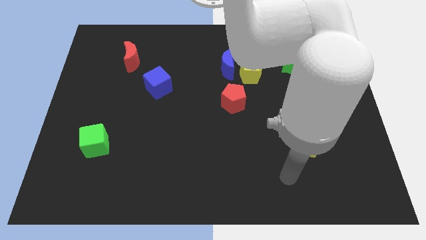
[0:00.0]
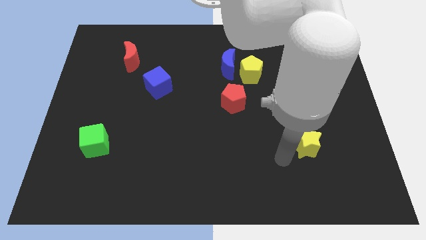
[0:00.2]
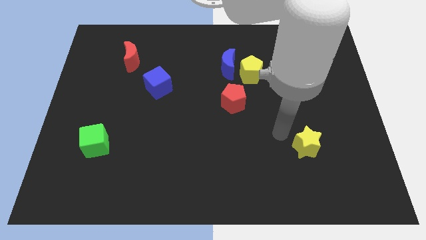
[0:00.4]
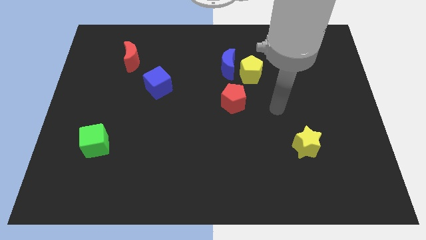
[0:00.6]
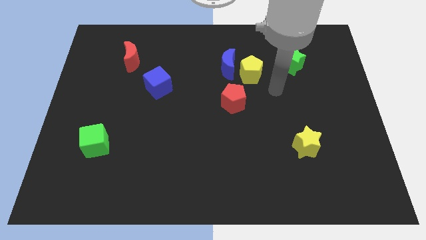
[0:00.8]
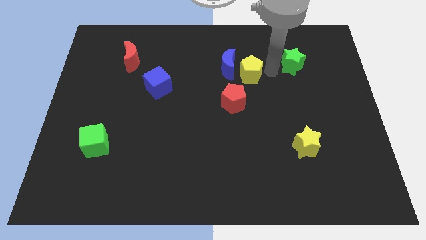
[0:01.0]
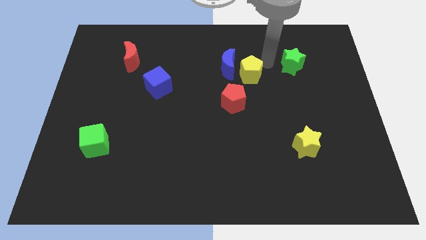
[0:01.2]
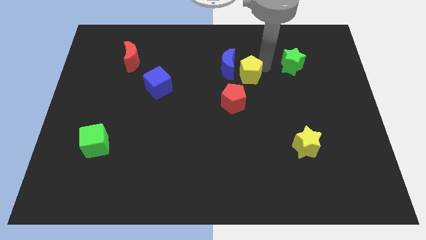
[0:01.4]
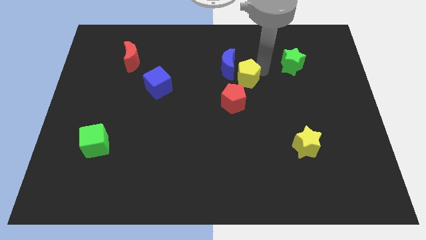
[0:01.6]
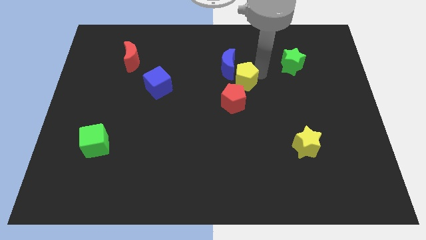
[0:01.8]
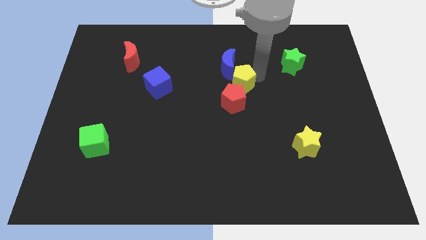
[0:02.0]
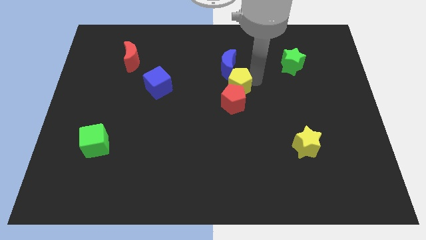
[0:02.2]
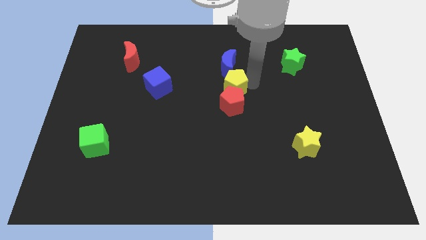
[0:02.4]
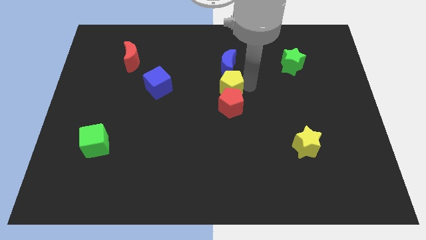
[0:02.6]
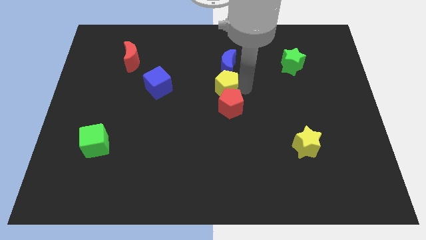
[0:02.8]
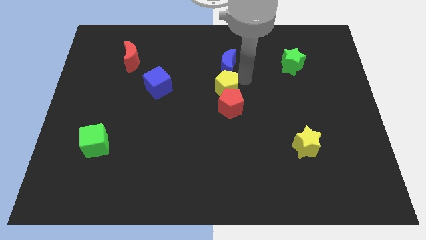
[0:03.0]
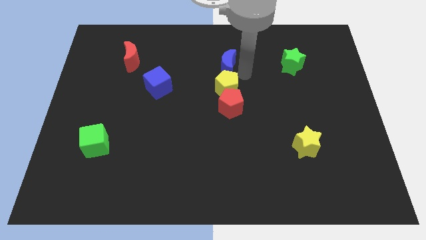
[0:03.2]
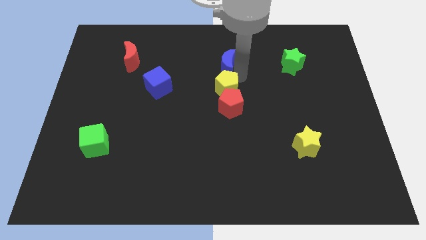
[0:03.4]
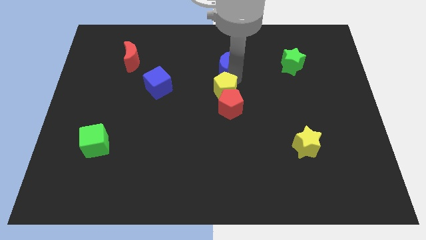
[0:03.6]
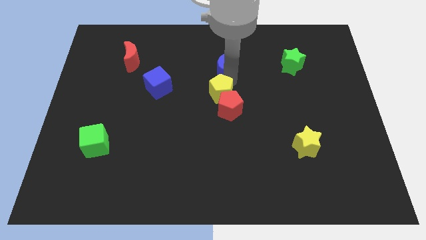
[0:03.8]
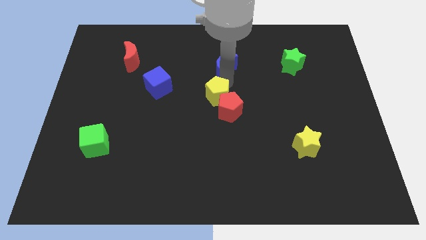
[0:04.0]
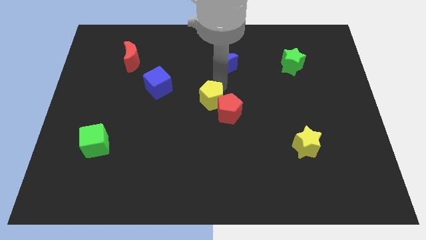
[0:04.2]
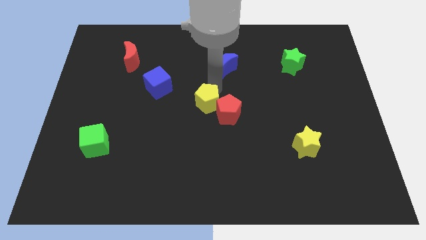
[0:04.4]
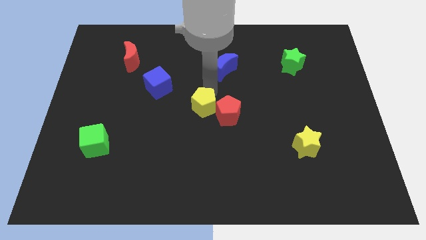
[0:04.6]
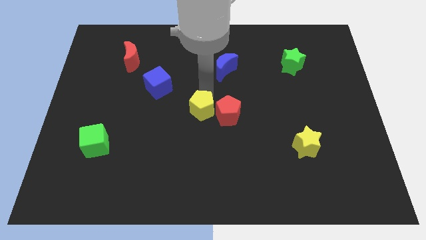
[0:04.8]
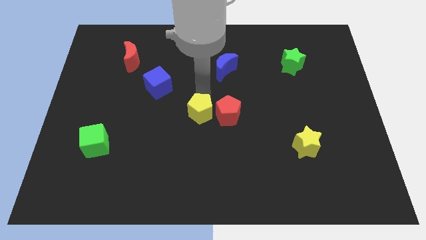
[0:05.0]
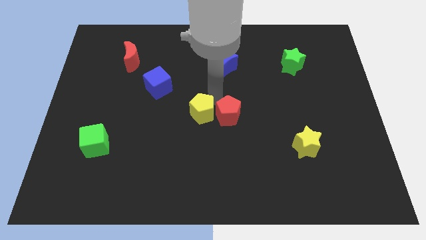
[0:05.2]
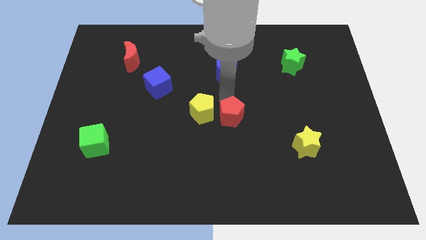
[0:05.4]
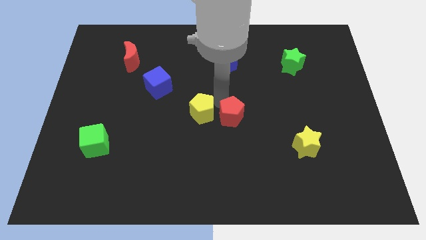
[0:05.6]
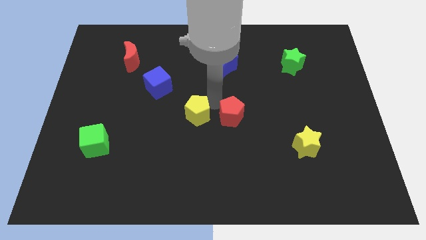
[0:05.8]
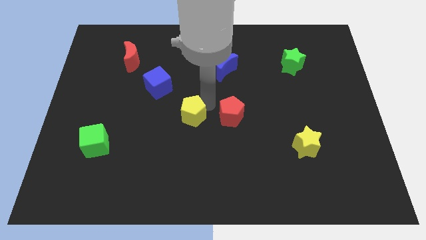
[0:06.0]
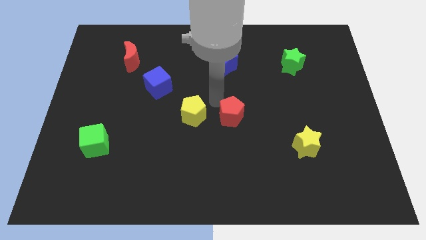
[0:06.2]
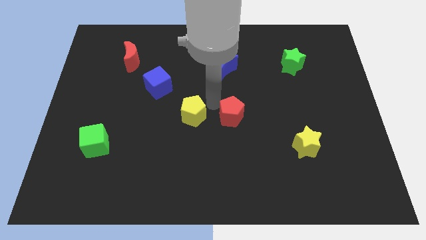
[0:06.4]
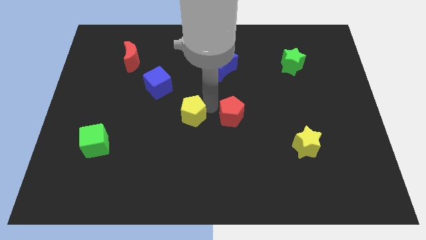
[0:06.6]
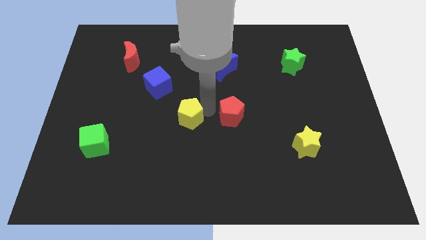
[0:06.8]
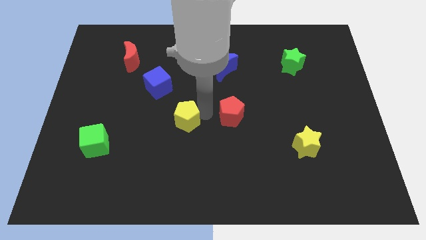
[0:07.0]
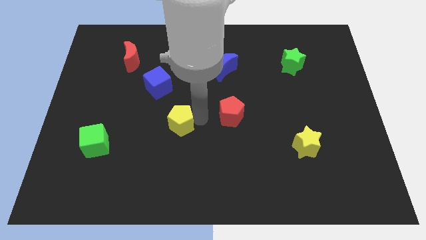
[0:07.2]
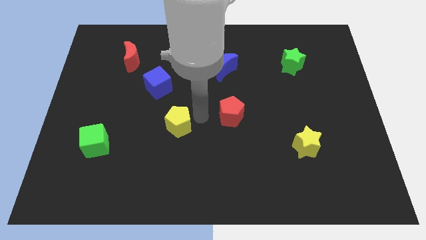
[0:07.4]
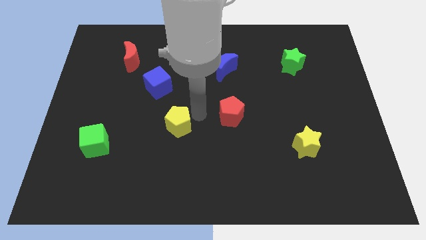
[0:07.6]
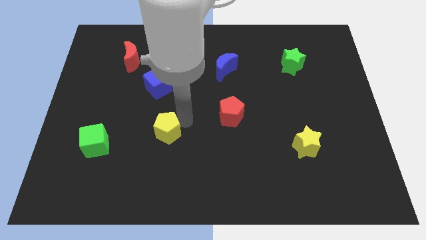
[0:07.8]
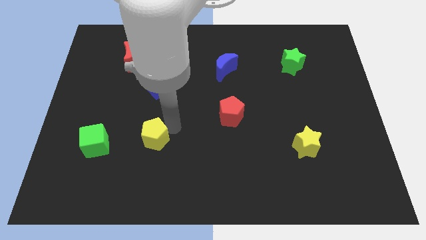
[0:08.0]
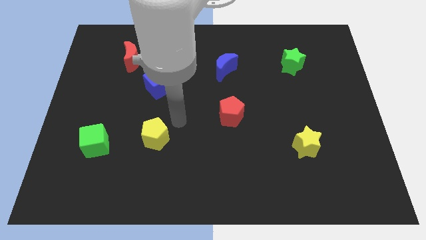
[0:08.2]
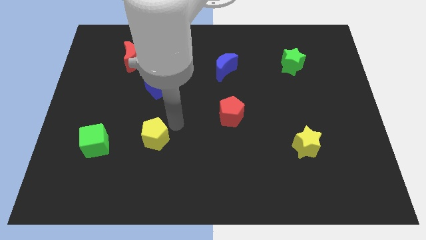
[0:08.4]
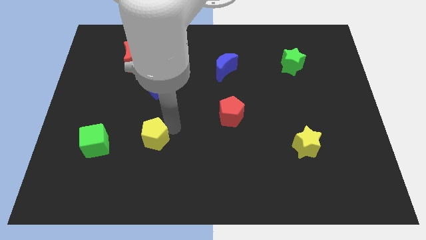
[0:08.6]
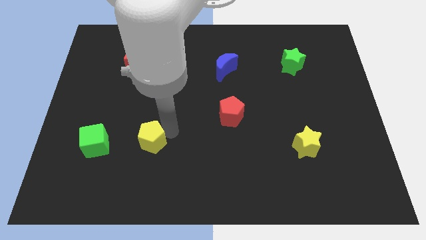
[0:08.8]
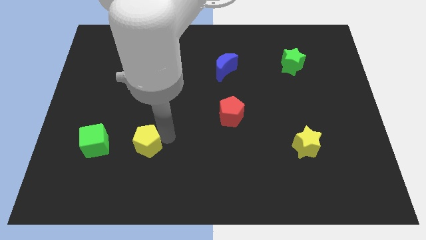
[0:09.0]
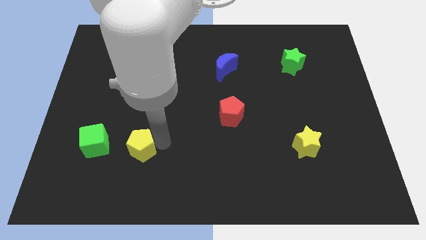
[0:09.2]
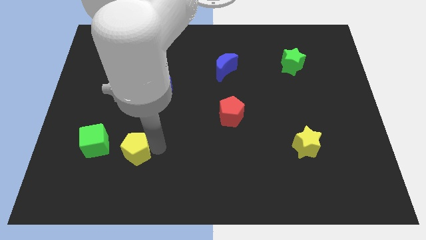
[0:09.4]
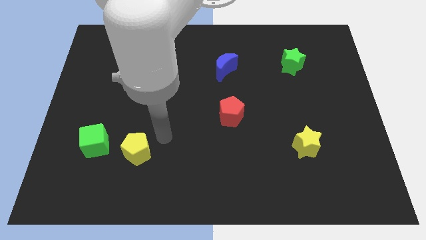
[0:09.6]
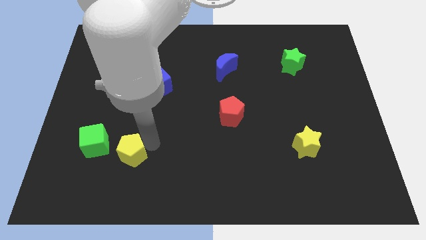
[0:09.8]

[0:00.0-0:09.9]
move the yellow pentagon diagonally down and to the right of the green cube
